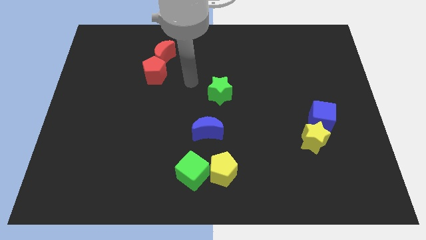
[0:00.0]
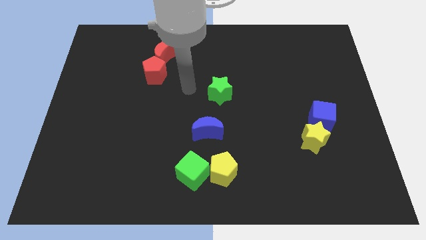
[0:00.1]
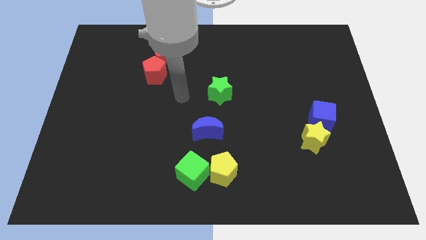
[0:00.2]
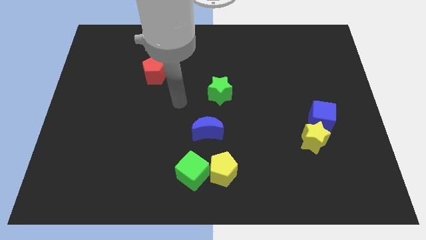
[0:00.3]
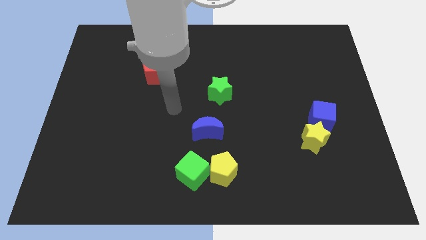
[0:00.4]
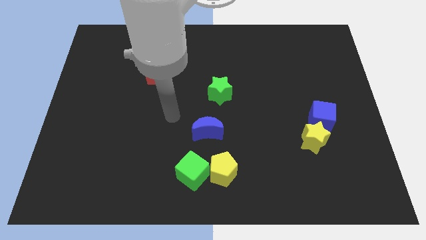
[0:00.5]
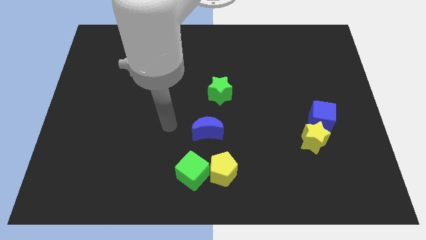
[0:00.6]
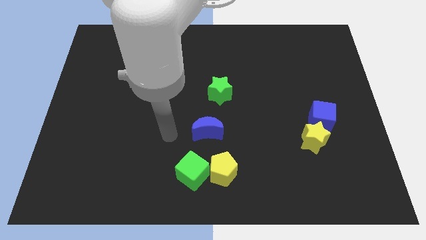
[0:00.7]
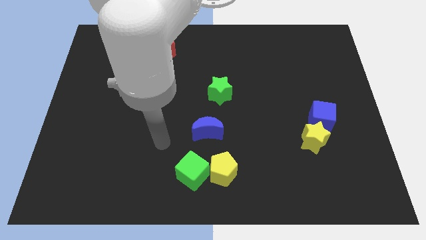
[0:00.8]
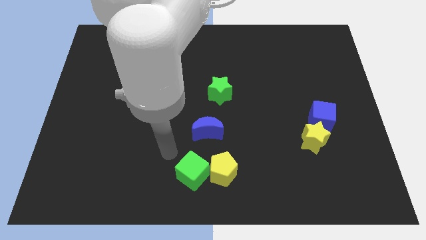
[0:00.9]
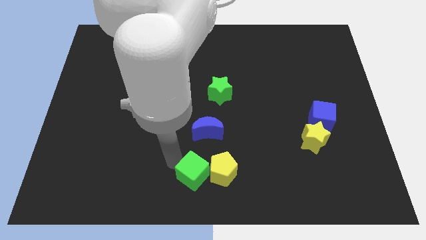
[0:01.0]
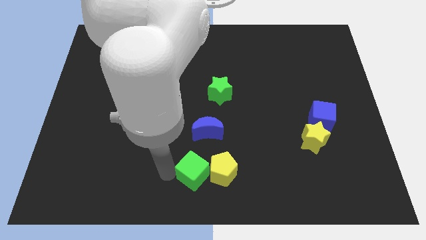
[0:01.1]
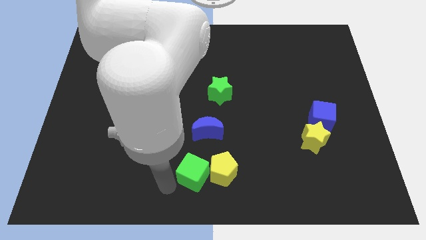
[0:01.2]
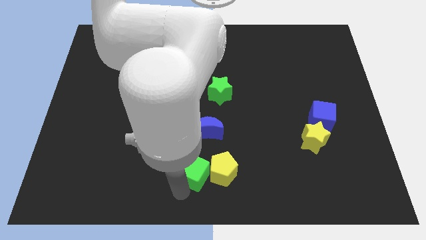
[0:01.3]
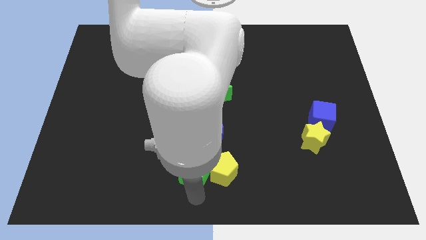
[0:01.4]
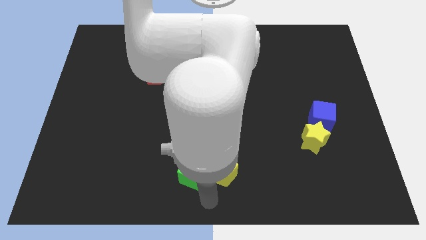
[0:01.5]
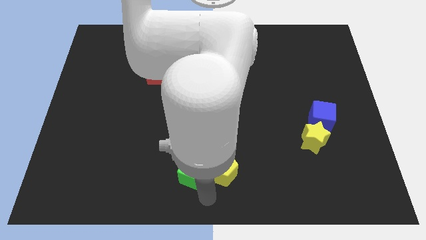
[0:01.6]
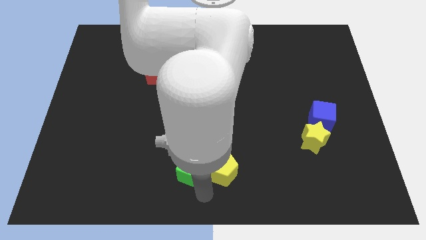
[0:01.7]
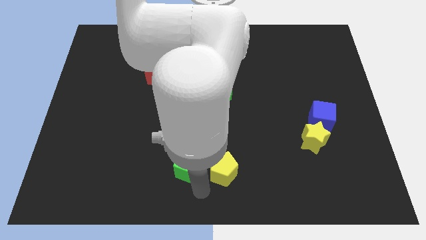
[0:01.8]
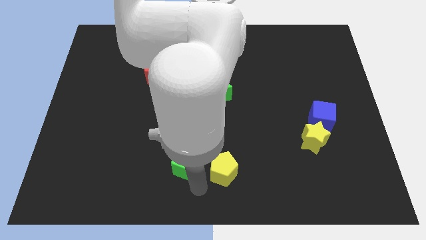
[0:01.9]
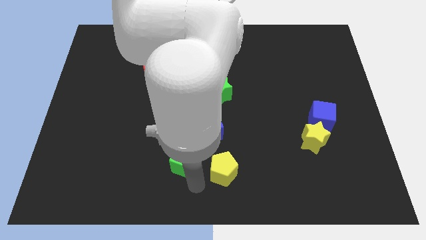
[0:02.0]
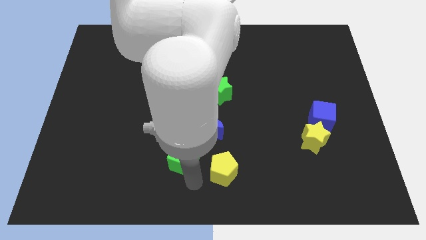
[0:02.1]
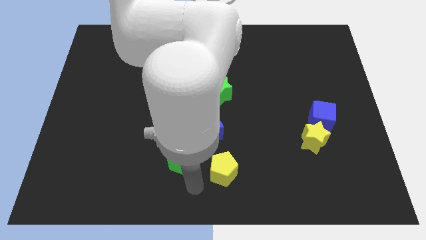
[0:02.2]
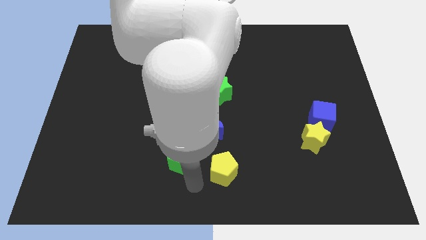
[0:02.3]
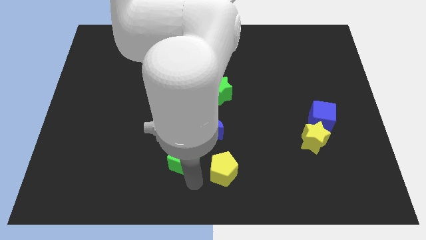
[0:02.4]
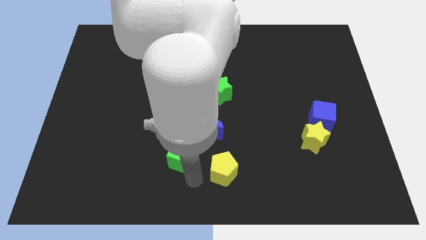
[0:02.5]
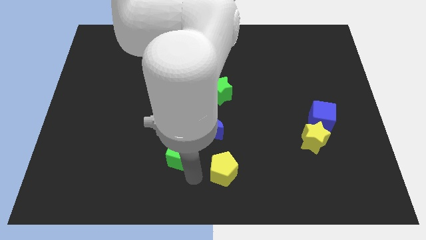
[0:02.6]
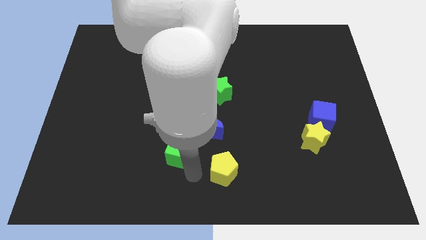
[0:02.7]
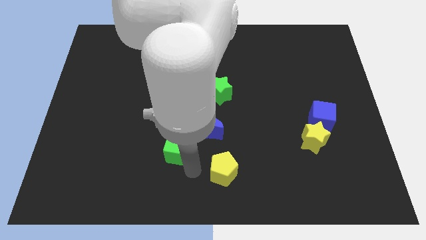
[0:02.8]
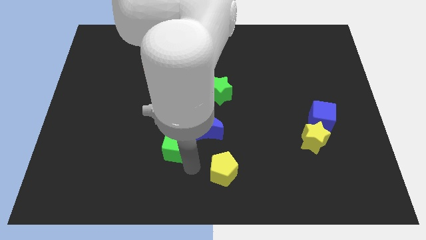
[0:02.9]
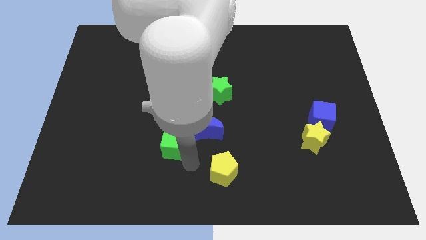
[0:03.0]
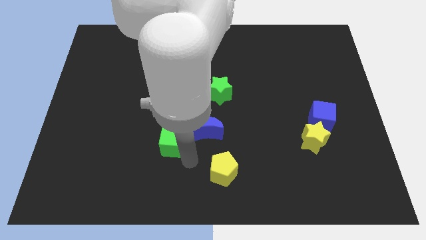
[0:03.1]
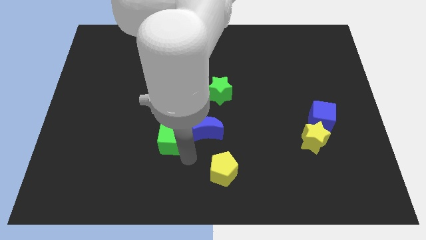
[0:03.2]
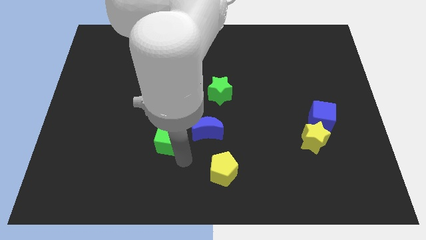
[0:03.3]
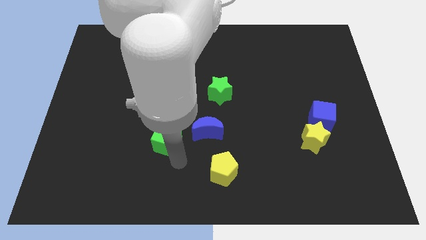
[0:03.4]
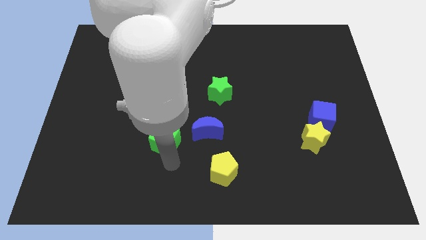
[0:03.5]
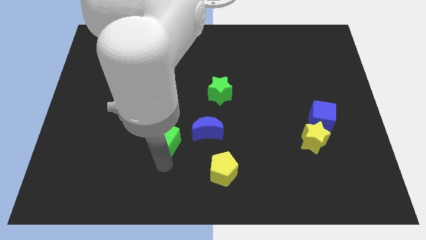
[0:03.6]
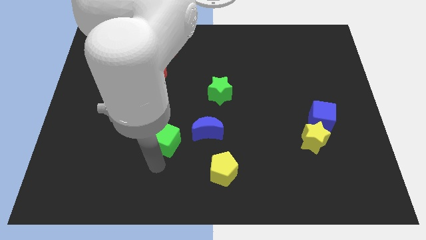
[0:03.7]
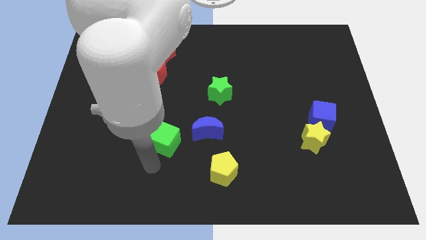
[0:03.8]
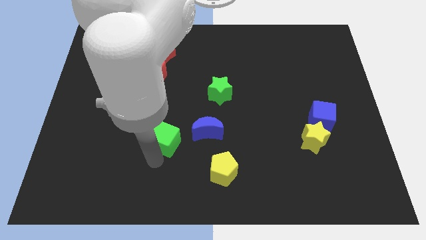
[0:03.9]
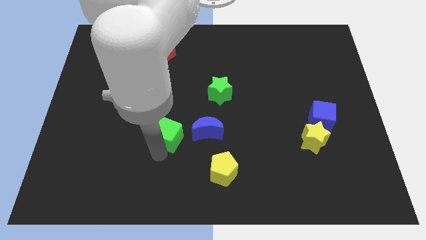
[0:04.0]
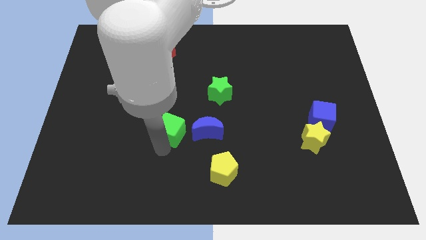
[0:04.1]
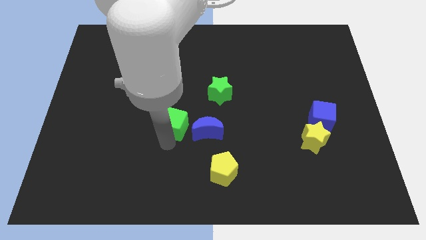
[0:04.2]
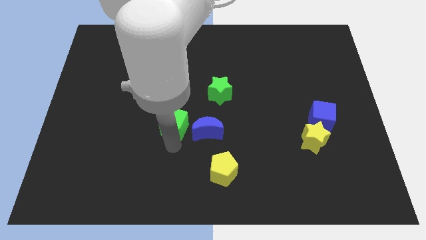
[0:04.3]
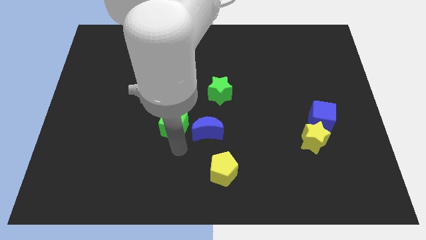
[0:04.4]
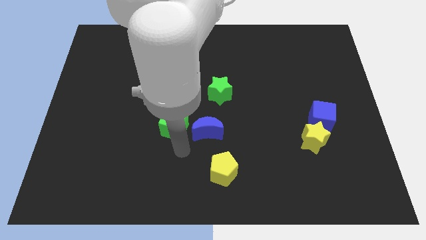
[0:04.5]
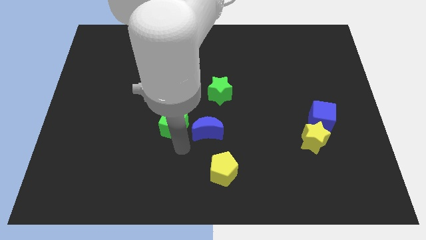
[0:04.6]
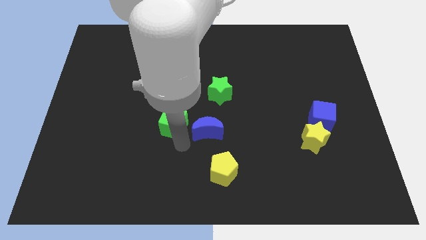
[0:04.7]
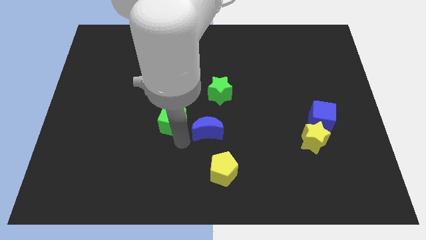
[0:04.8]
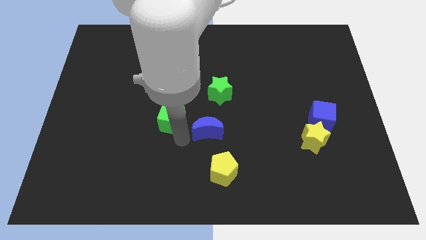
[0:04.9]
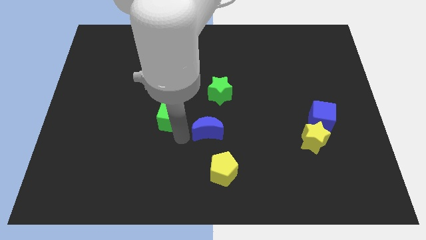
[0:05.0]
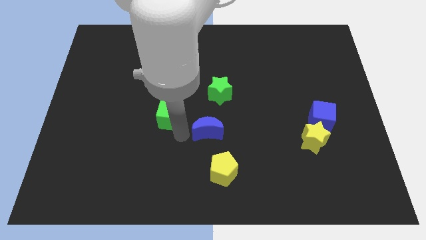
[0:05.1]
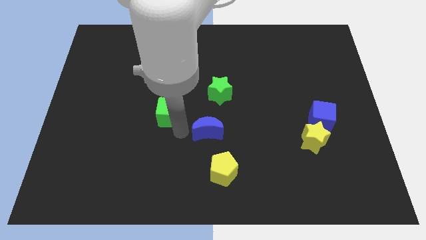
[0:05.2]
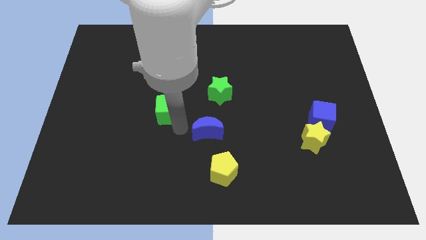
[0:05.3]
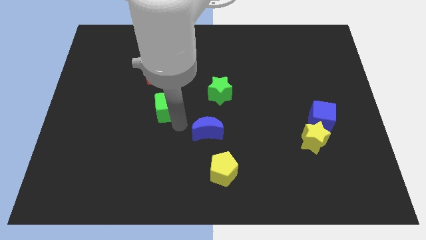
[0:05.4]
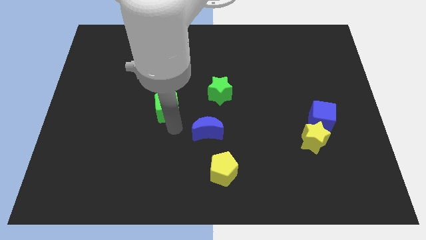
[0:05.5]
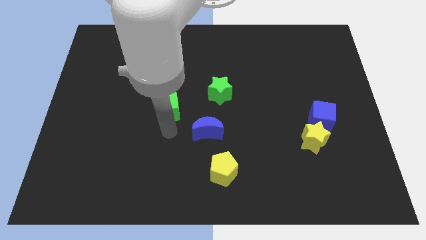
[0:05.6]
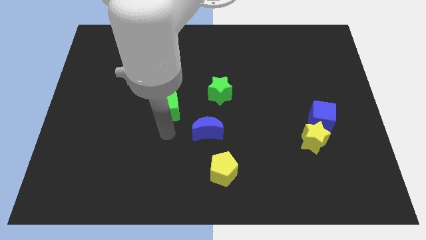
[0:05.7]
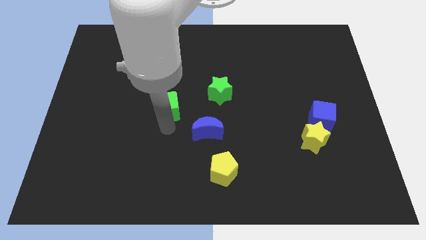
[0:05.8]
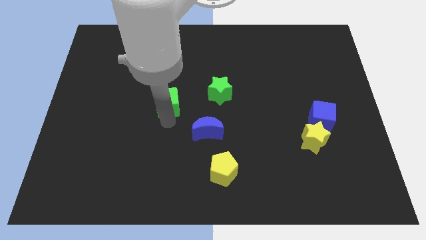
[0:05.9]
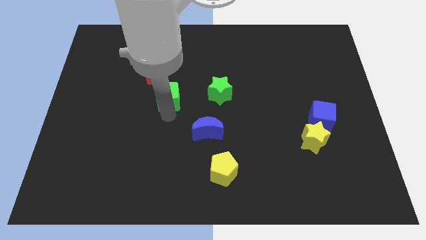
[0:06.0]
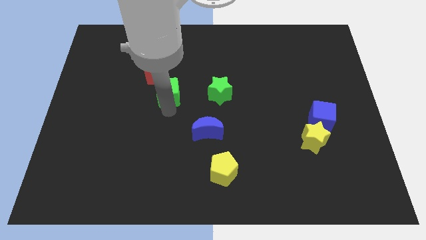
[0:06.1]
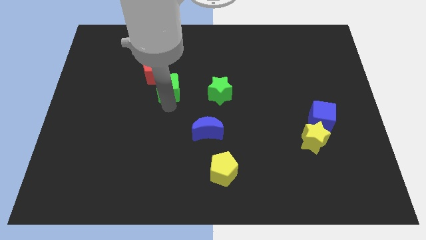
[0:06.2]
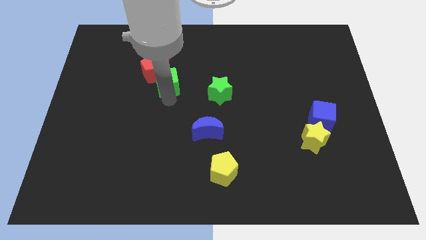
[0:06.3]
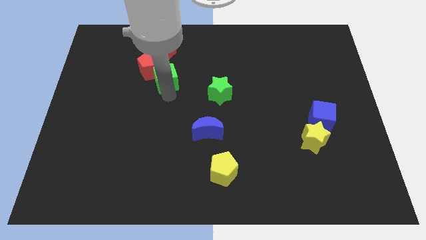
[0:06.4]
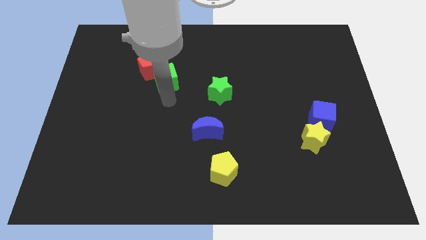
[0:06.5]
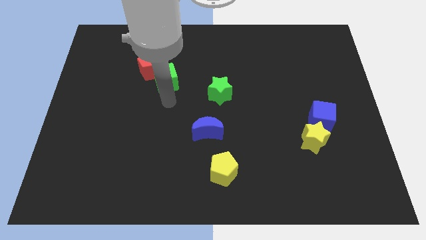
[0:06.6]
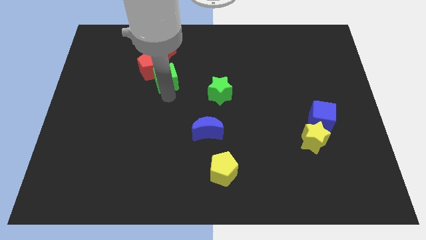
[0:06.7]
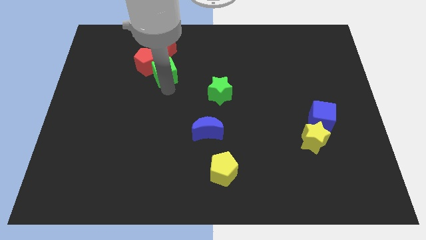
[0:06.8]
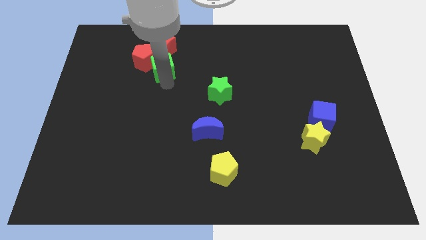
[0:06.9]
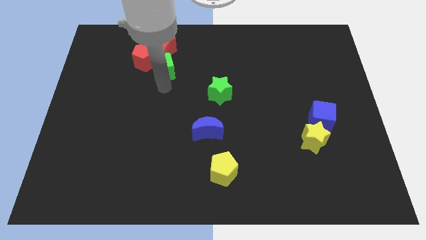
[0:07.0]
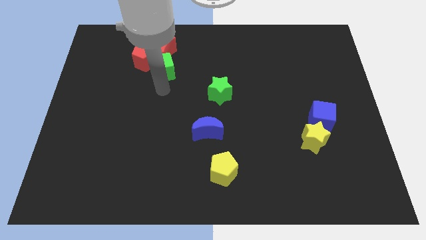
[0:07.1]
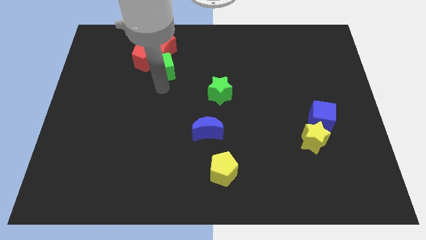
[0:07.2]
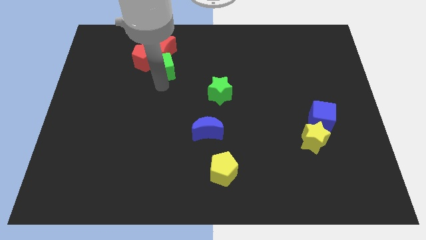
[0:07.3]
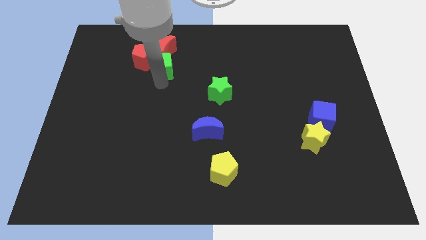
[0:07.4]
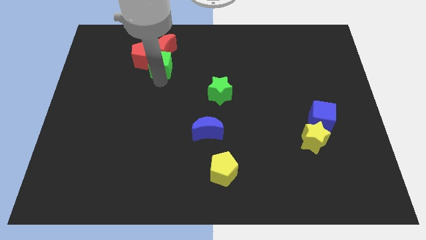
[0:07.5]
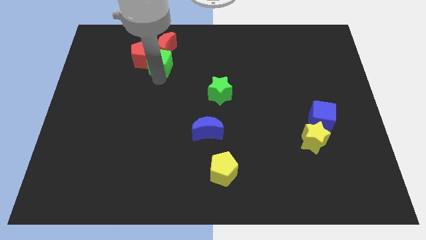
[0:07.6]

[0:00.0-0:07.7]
push the green cube close to the red moon
